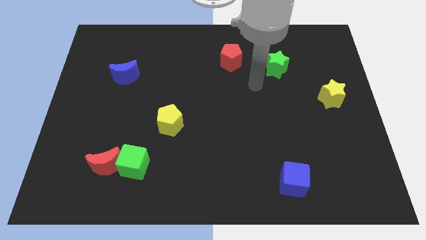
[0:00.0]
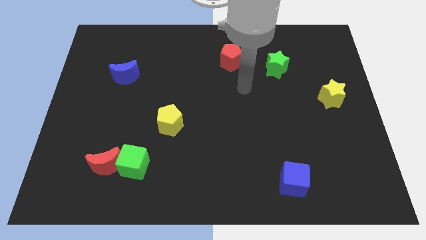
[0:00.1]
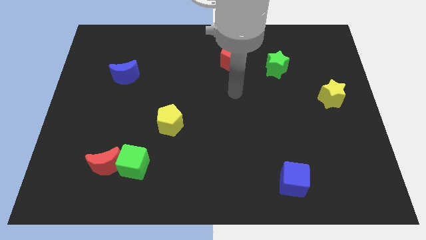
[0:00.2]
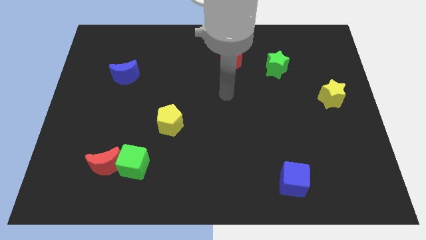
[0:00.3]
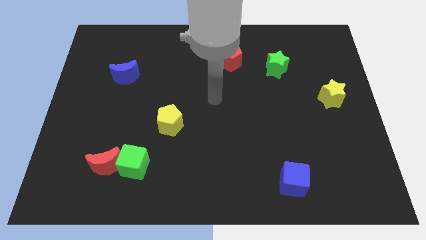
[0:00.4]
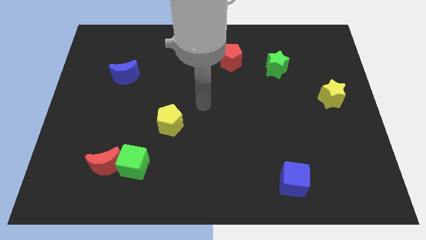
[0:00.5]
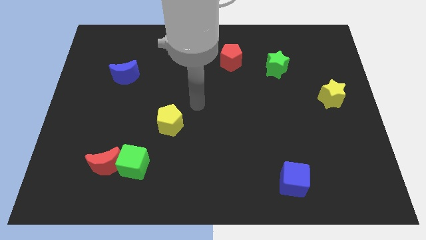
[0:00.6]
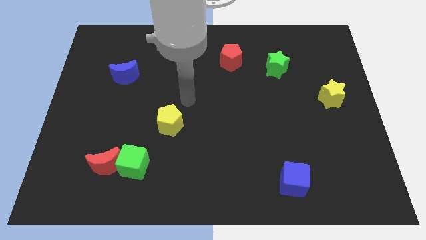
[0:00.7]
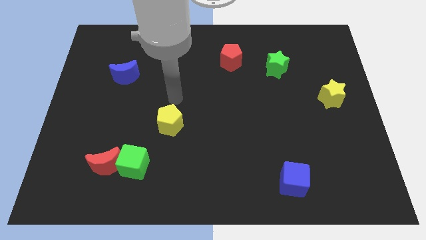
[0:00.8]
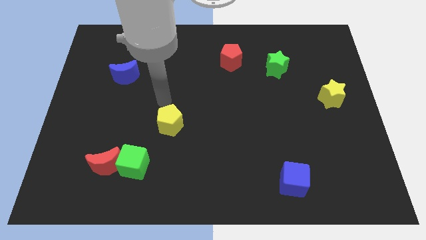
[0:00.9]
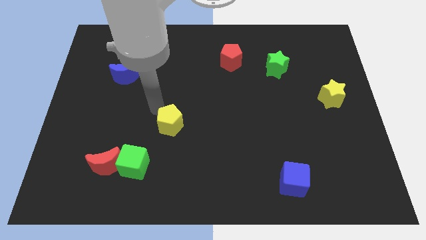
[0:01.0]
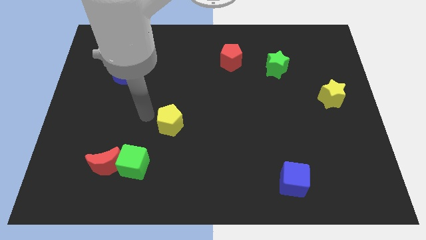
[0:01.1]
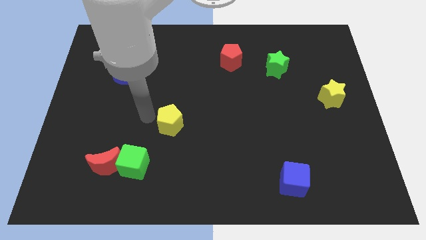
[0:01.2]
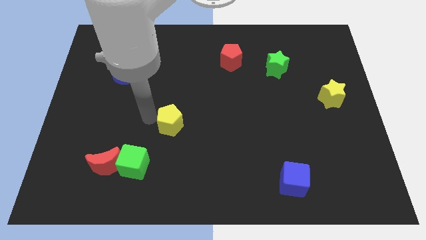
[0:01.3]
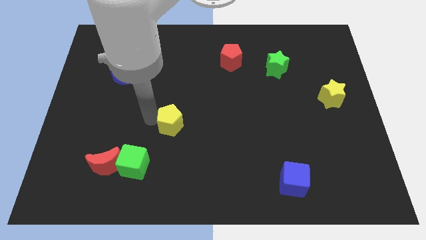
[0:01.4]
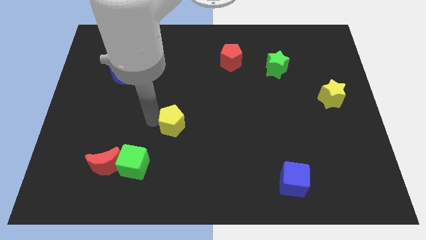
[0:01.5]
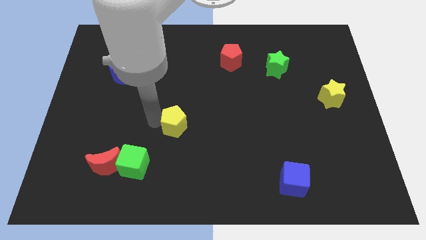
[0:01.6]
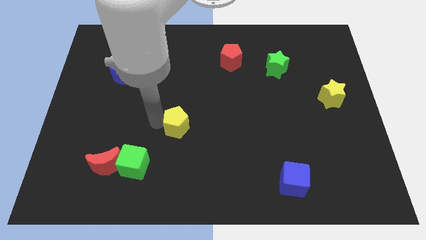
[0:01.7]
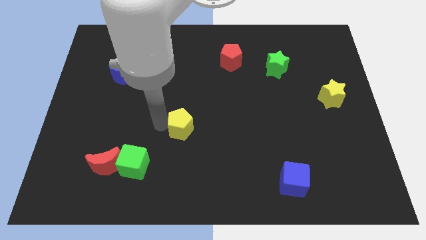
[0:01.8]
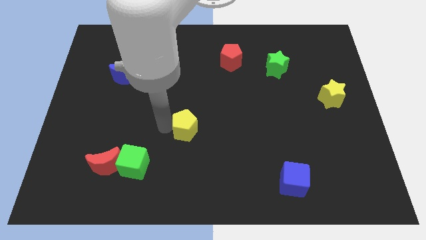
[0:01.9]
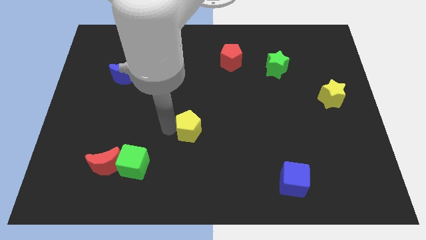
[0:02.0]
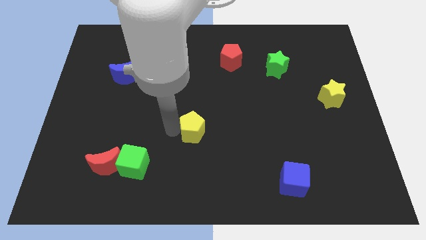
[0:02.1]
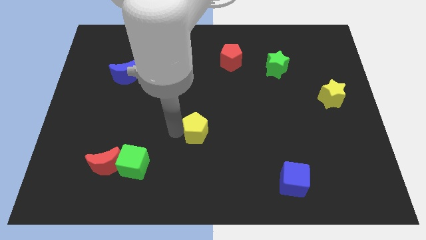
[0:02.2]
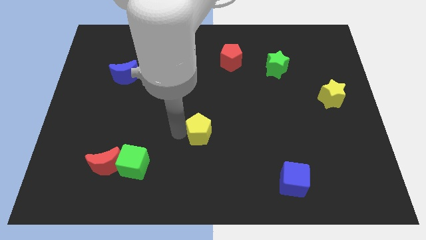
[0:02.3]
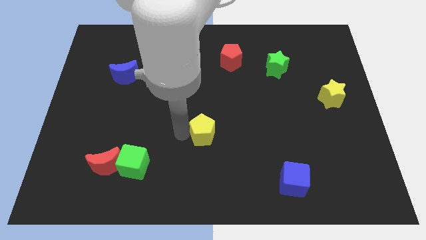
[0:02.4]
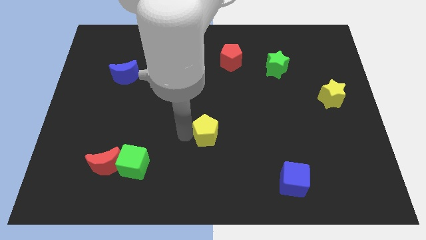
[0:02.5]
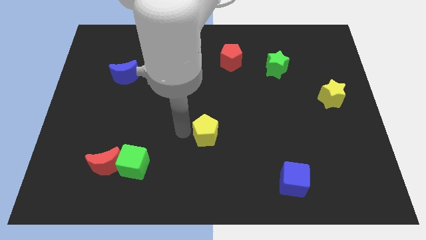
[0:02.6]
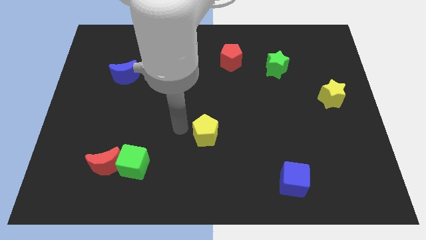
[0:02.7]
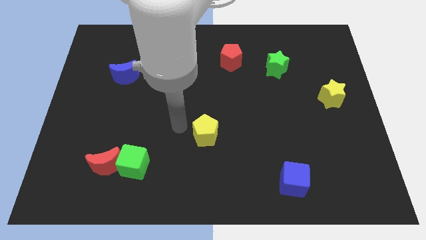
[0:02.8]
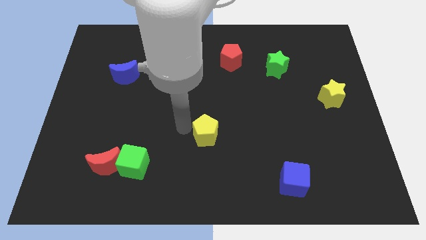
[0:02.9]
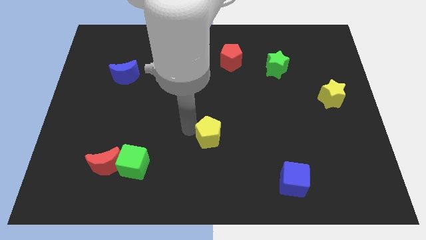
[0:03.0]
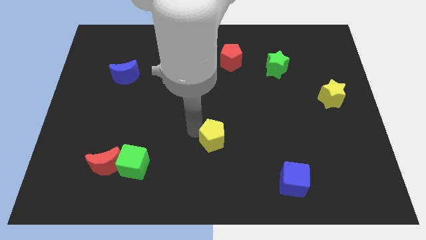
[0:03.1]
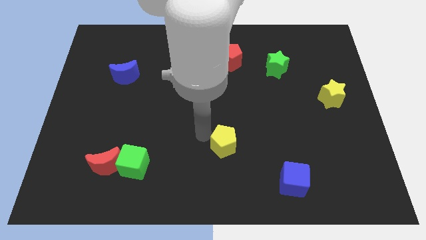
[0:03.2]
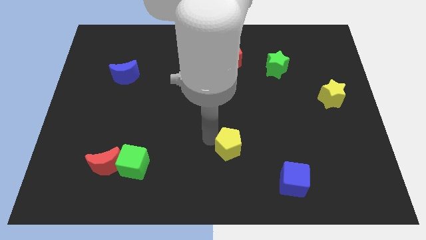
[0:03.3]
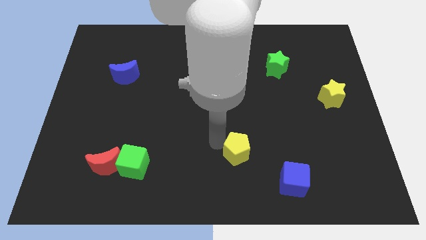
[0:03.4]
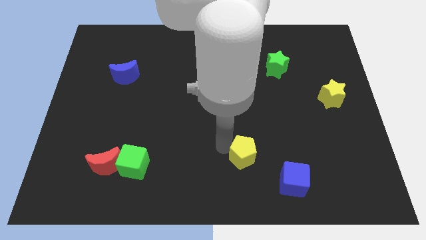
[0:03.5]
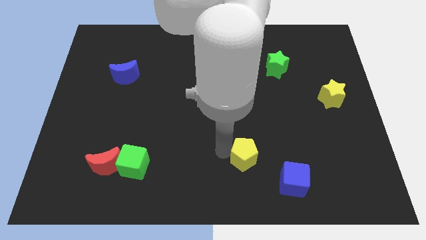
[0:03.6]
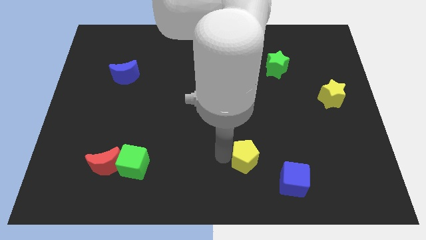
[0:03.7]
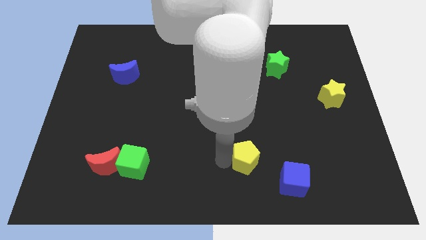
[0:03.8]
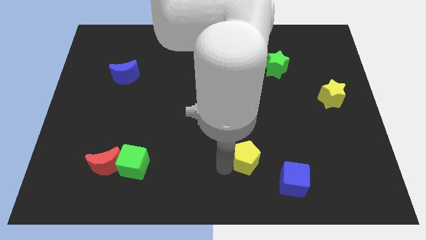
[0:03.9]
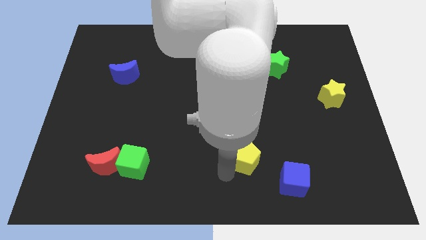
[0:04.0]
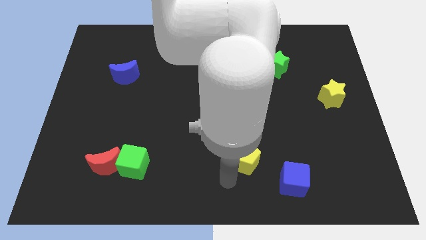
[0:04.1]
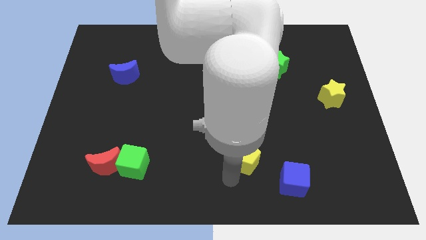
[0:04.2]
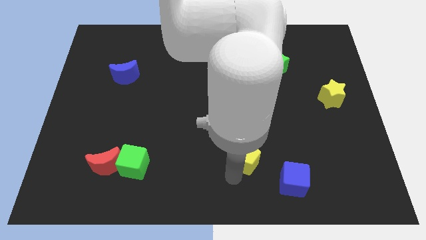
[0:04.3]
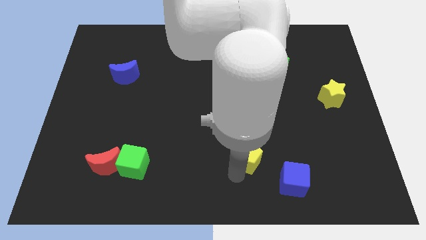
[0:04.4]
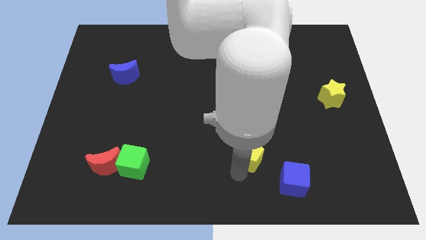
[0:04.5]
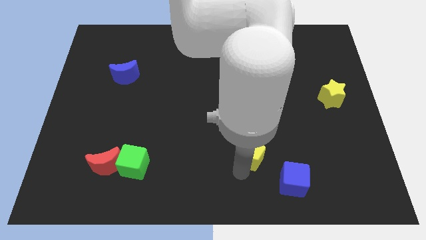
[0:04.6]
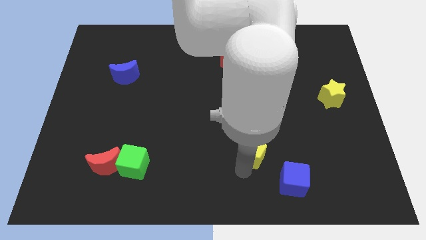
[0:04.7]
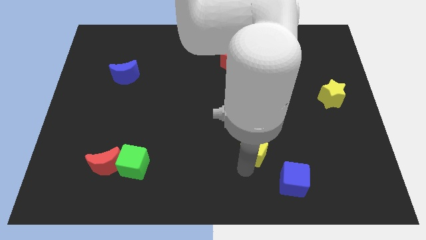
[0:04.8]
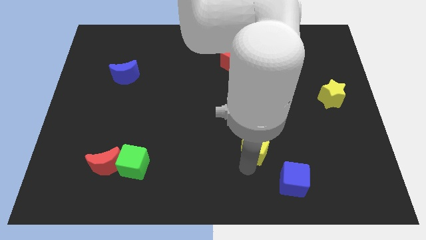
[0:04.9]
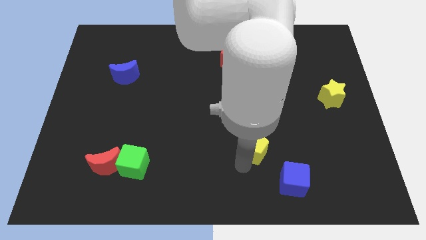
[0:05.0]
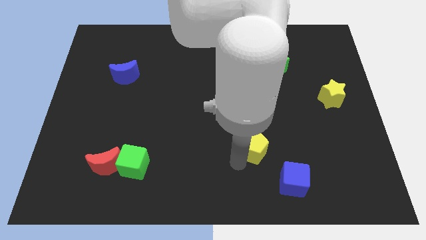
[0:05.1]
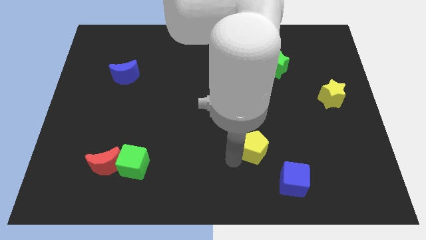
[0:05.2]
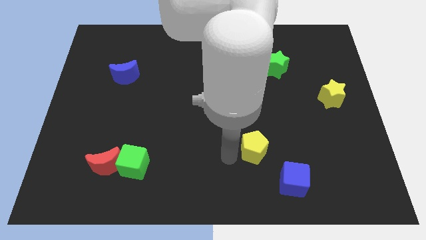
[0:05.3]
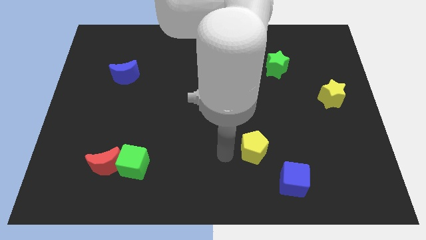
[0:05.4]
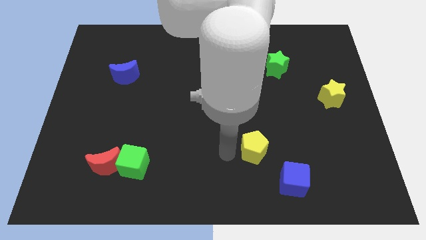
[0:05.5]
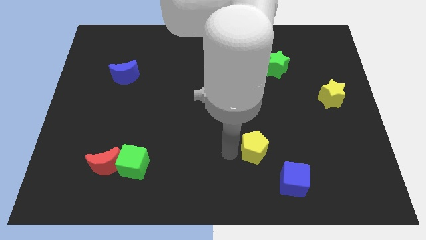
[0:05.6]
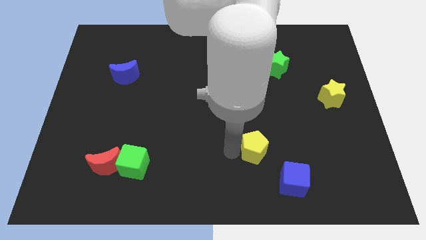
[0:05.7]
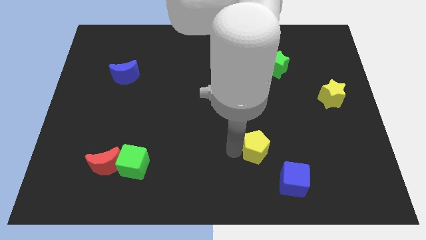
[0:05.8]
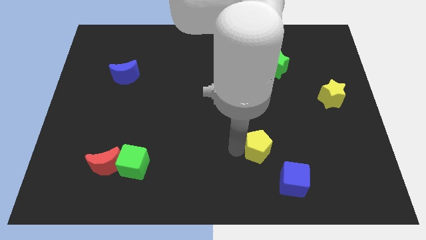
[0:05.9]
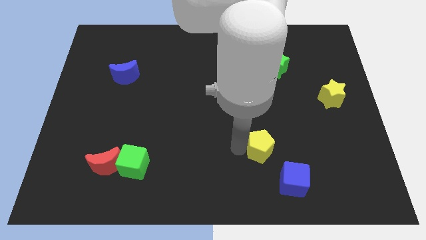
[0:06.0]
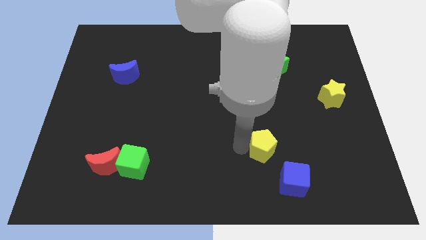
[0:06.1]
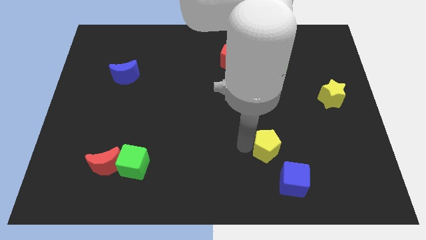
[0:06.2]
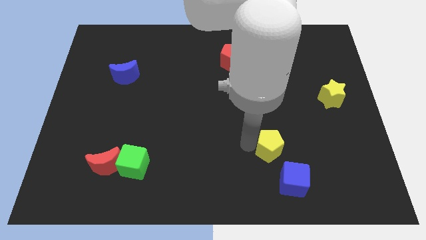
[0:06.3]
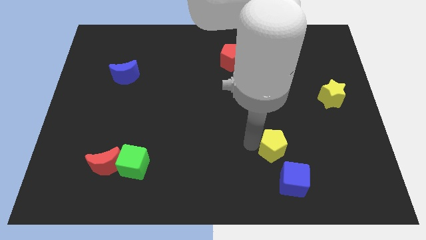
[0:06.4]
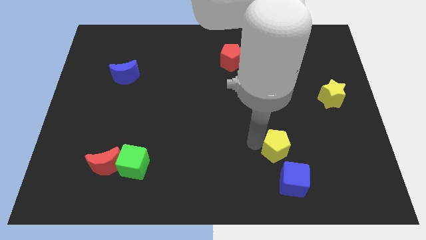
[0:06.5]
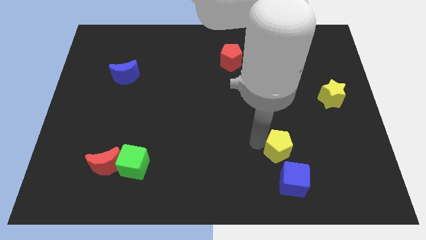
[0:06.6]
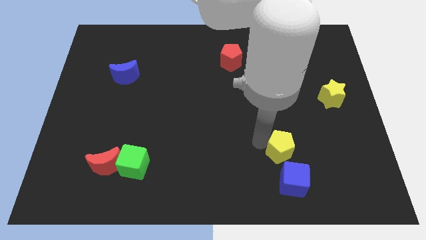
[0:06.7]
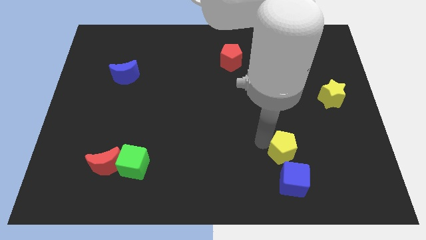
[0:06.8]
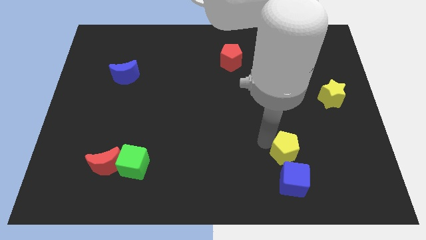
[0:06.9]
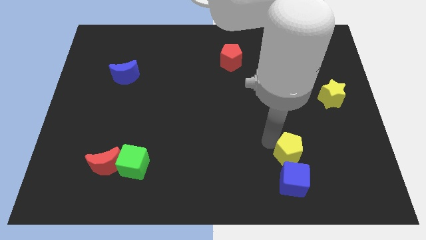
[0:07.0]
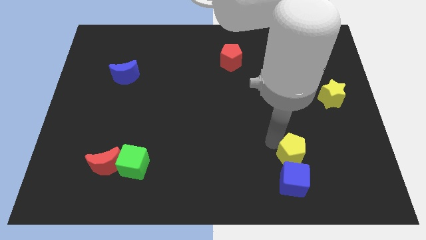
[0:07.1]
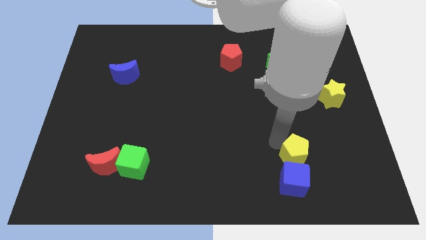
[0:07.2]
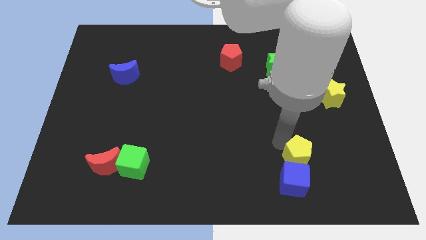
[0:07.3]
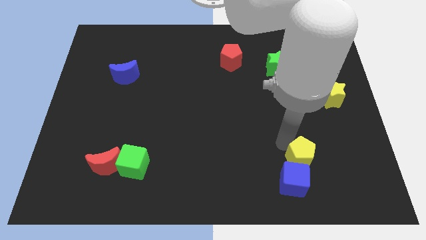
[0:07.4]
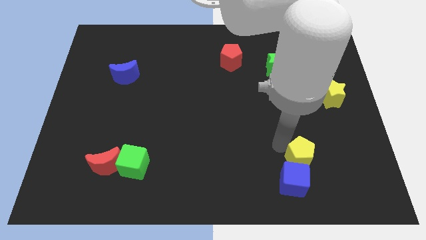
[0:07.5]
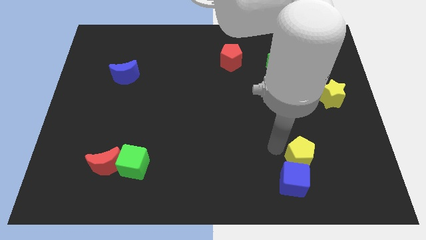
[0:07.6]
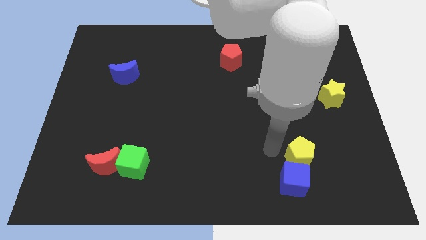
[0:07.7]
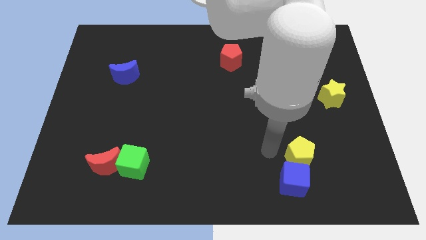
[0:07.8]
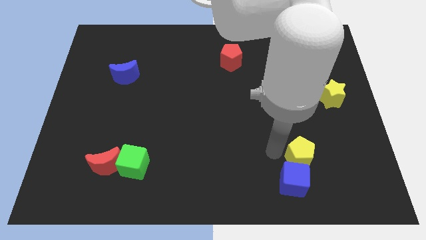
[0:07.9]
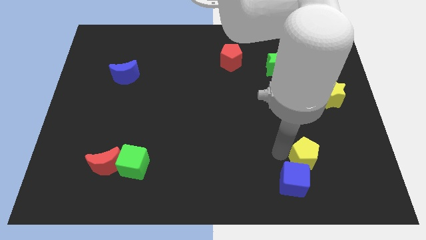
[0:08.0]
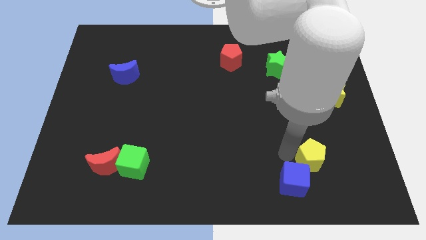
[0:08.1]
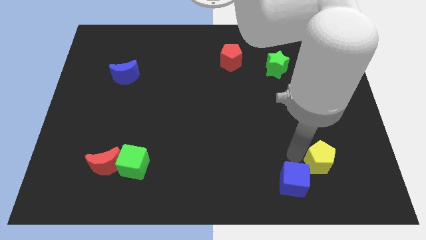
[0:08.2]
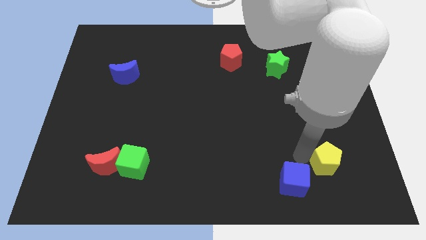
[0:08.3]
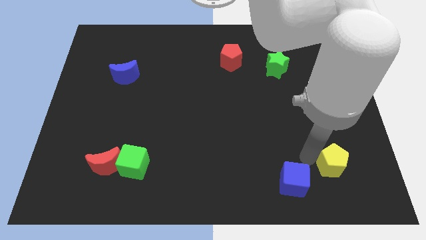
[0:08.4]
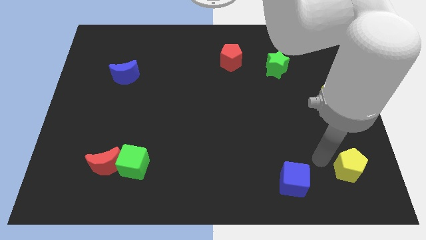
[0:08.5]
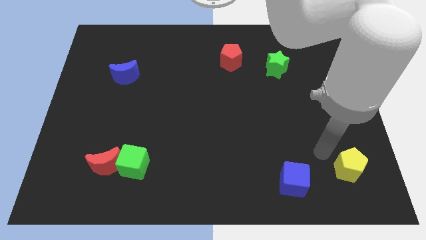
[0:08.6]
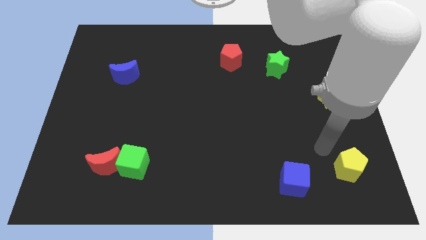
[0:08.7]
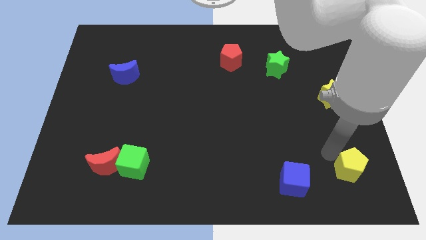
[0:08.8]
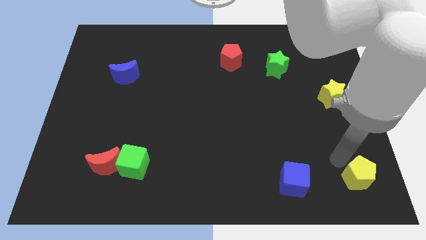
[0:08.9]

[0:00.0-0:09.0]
put the yellow pentagon to the bottom right corner
